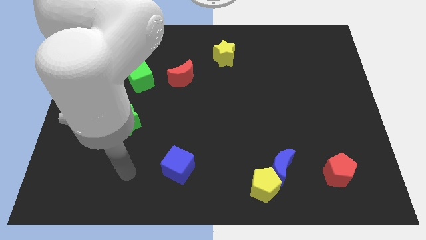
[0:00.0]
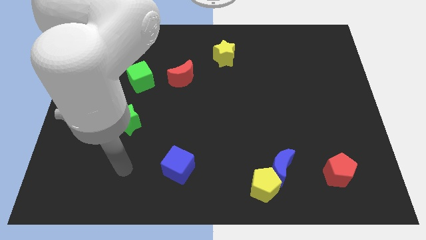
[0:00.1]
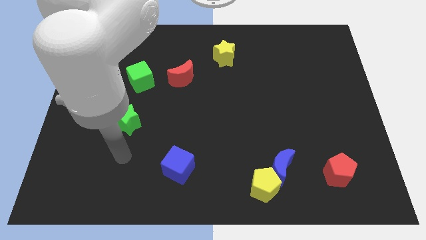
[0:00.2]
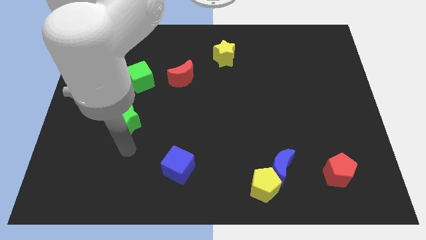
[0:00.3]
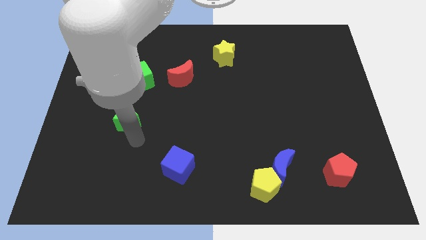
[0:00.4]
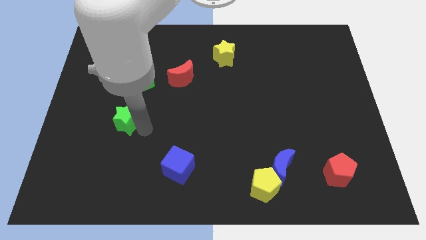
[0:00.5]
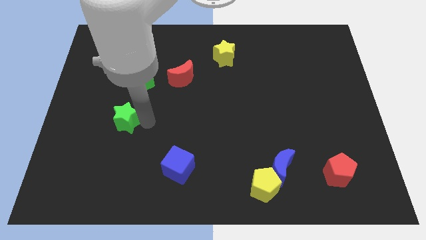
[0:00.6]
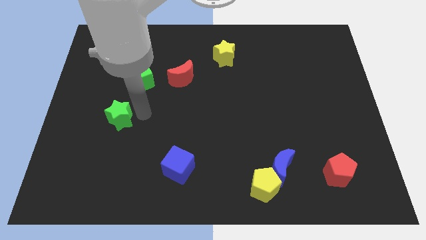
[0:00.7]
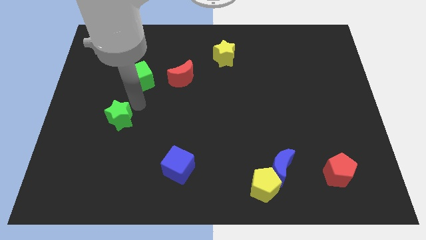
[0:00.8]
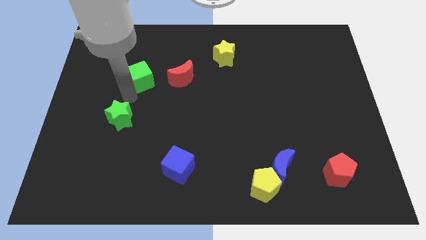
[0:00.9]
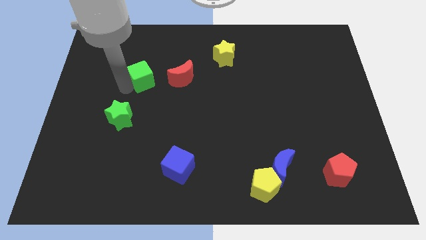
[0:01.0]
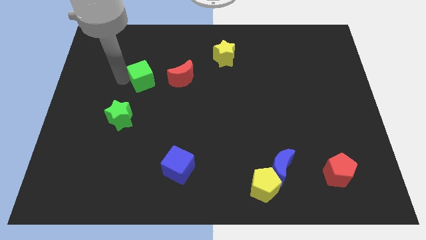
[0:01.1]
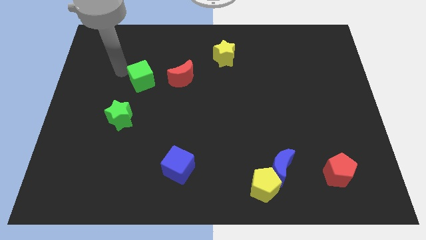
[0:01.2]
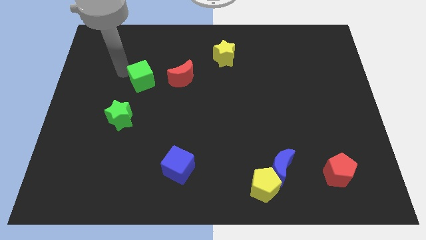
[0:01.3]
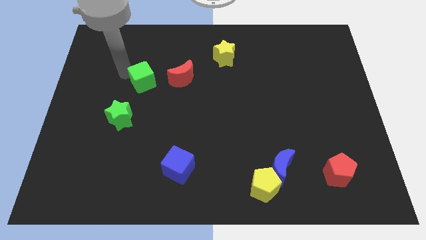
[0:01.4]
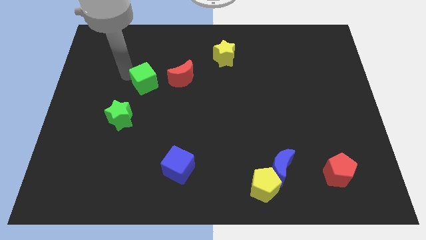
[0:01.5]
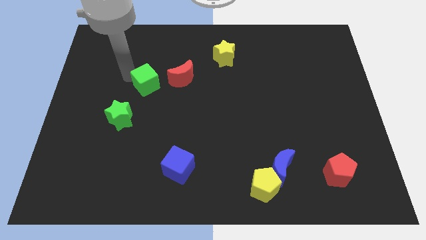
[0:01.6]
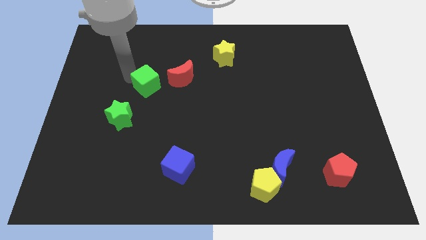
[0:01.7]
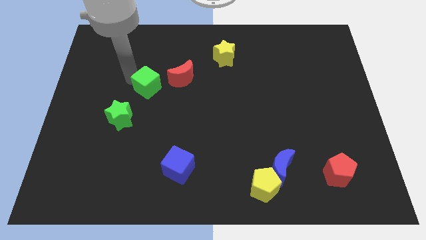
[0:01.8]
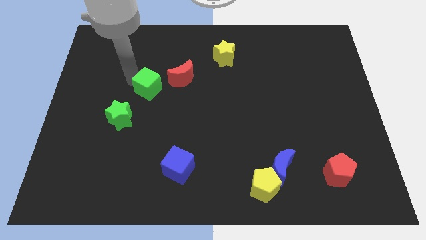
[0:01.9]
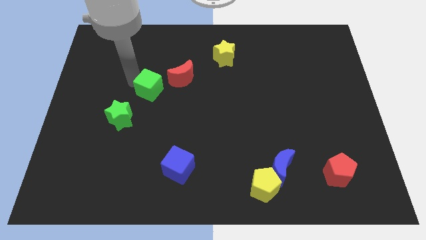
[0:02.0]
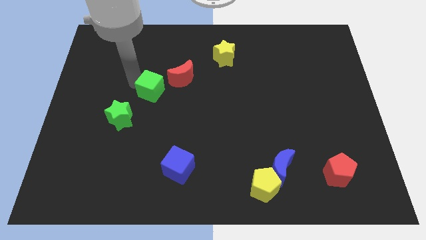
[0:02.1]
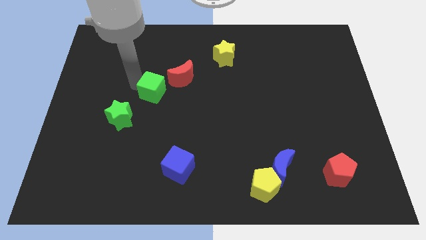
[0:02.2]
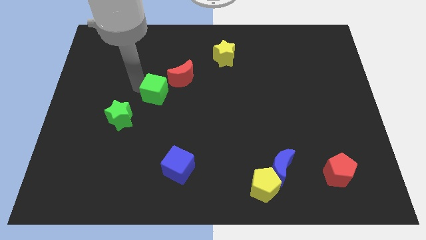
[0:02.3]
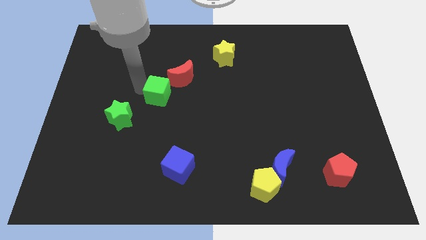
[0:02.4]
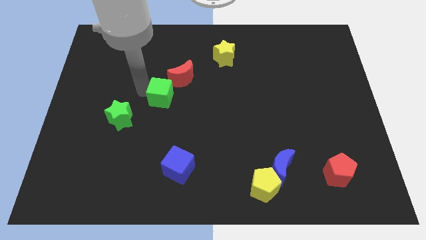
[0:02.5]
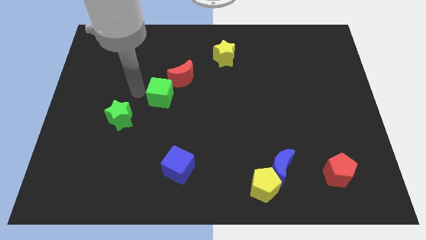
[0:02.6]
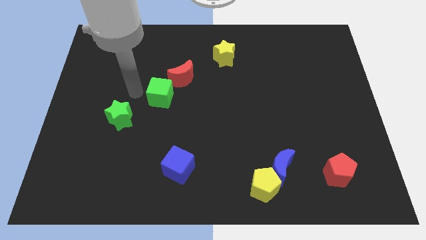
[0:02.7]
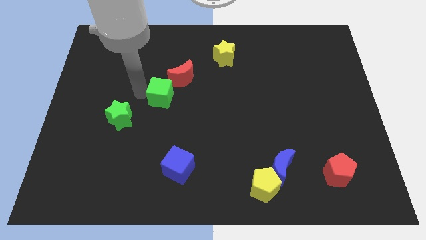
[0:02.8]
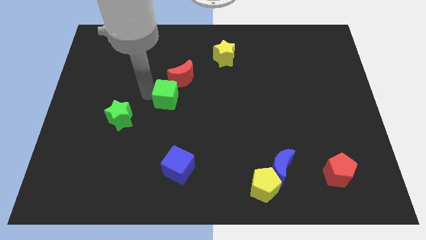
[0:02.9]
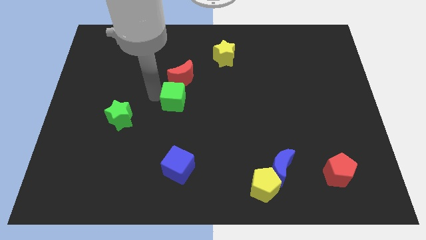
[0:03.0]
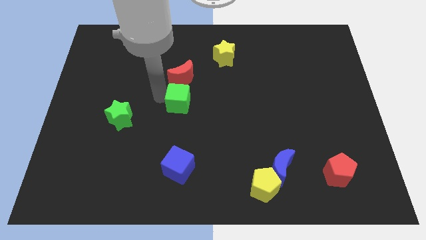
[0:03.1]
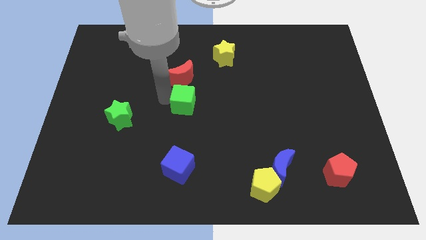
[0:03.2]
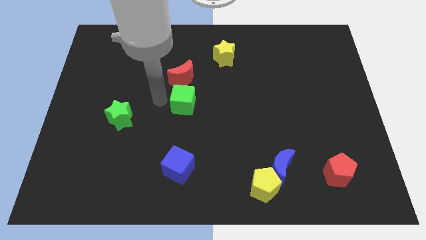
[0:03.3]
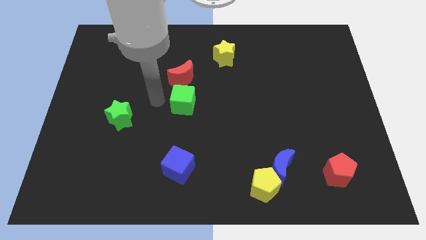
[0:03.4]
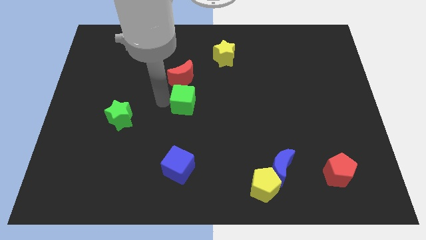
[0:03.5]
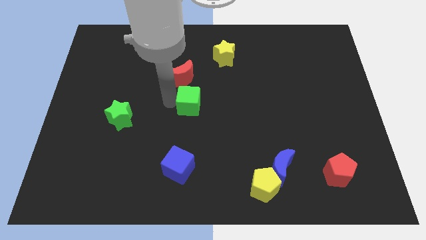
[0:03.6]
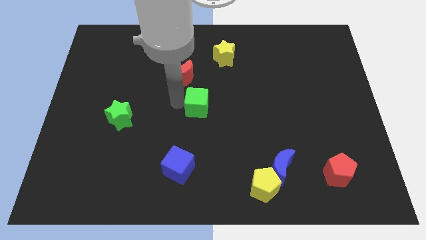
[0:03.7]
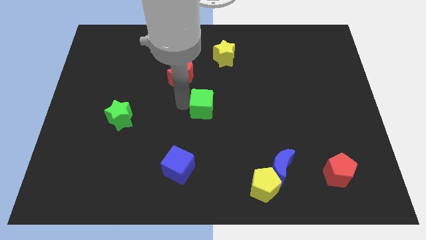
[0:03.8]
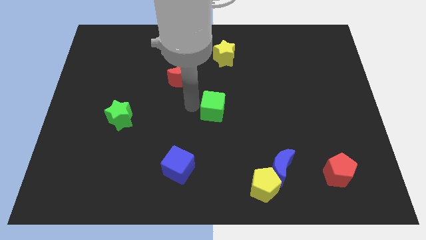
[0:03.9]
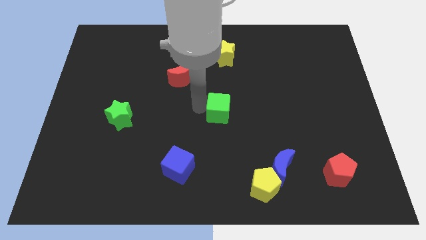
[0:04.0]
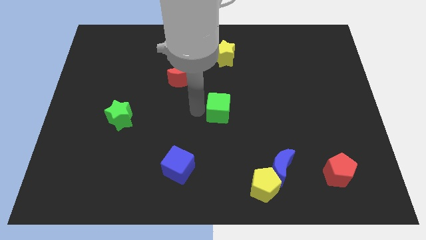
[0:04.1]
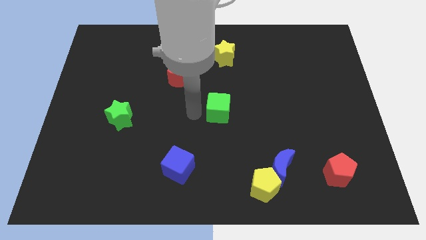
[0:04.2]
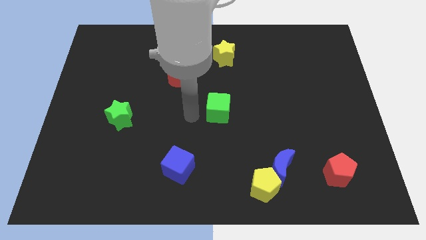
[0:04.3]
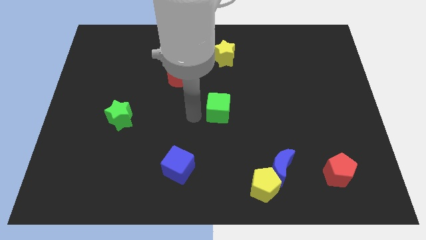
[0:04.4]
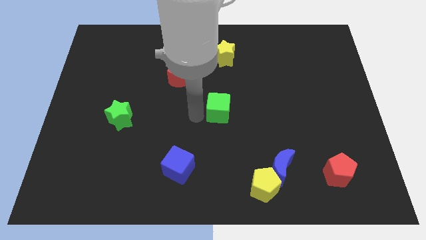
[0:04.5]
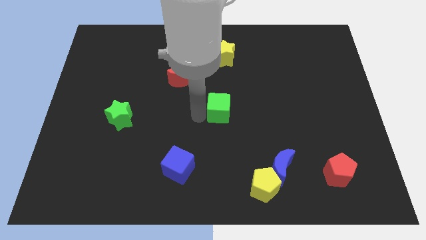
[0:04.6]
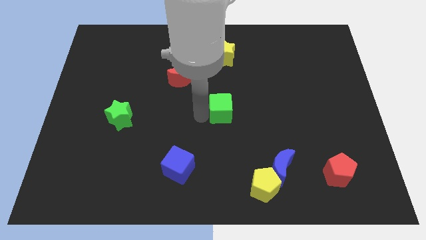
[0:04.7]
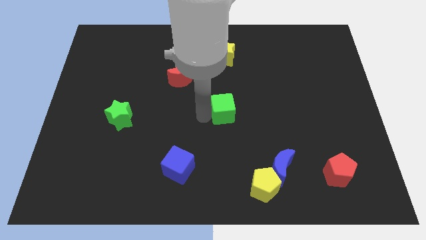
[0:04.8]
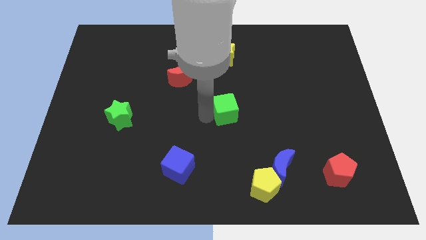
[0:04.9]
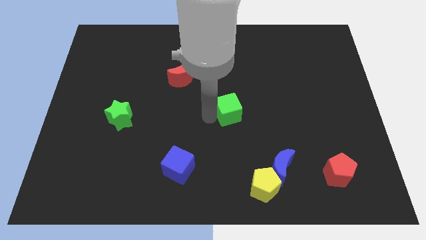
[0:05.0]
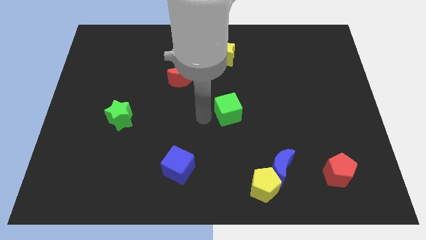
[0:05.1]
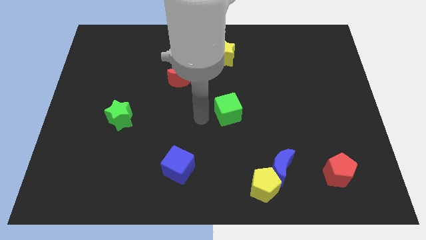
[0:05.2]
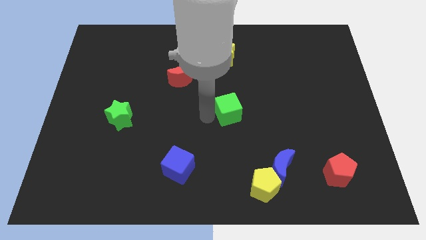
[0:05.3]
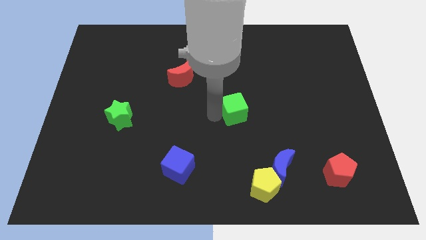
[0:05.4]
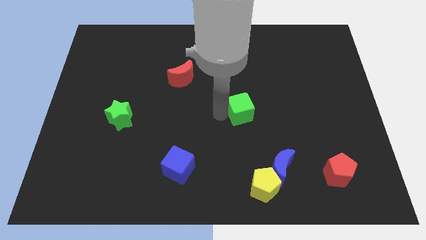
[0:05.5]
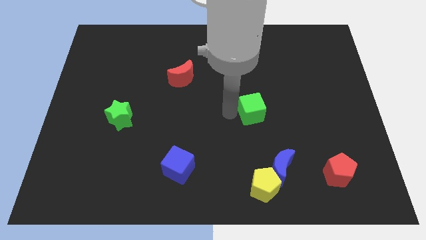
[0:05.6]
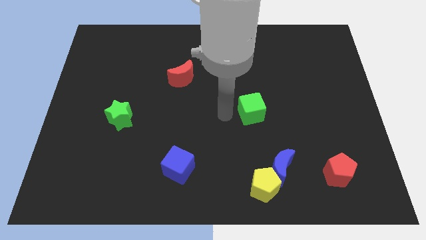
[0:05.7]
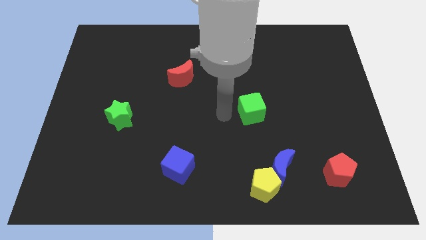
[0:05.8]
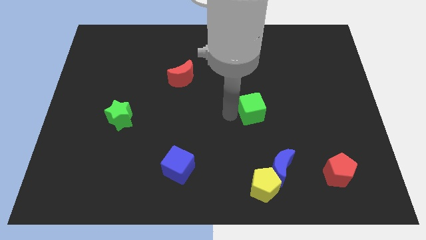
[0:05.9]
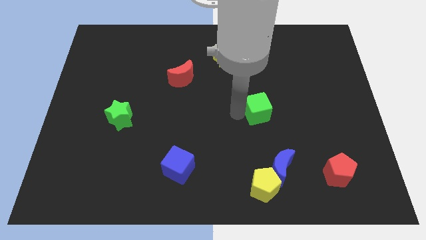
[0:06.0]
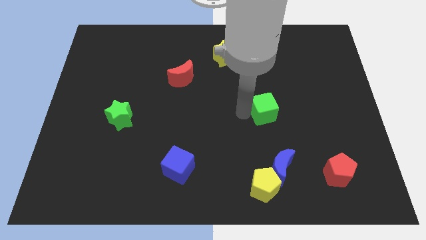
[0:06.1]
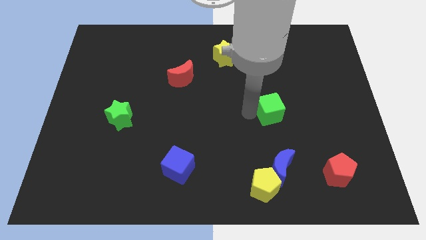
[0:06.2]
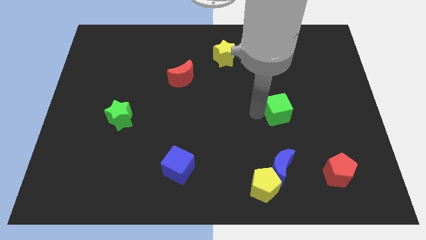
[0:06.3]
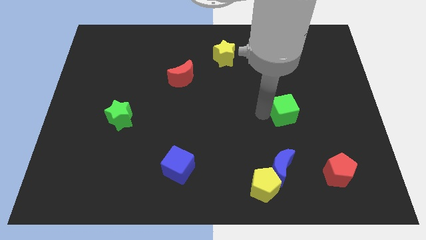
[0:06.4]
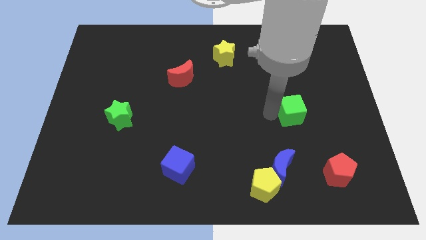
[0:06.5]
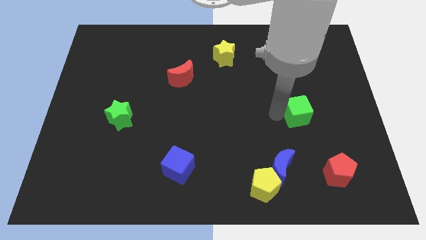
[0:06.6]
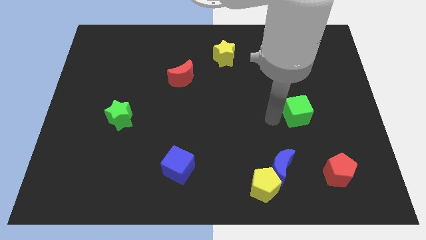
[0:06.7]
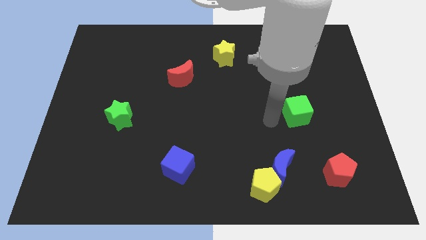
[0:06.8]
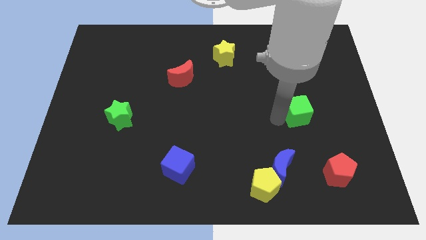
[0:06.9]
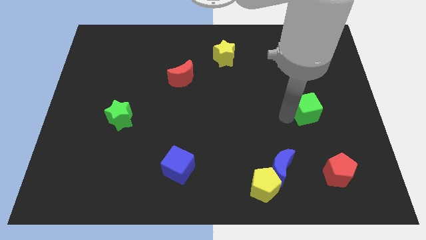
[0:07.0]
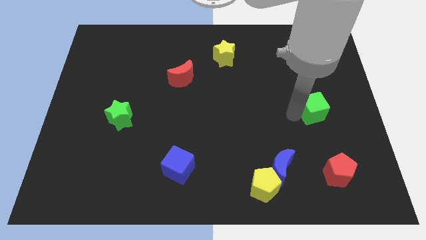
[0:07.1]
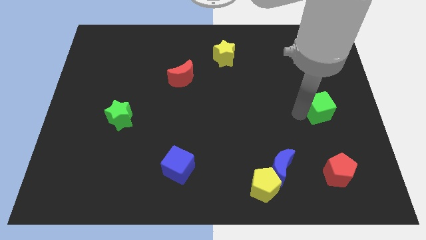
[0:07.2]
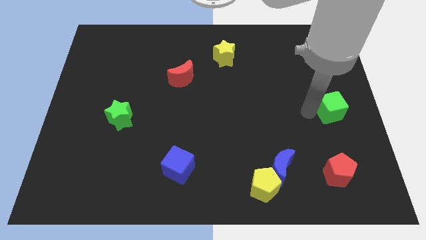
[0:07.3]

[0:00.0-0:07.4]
put the green cube to the center right

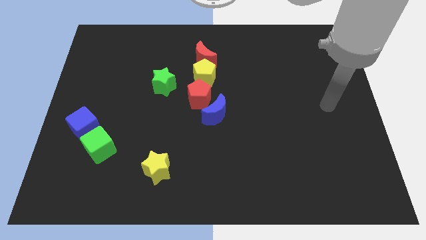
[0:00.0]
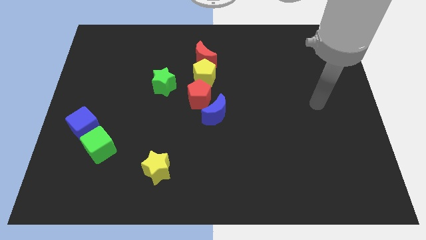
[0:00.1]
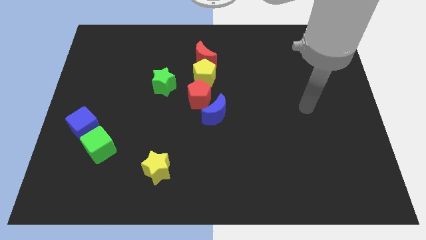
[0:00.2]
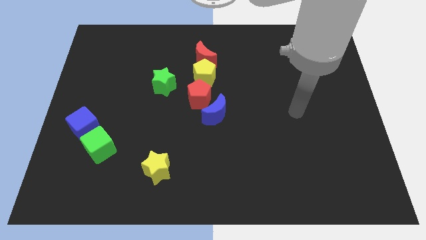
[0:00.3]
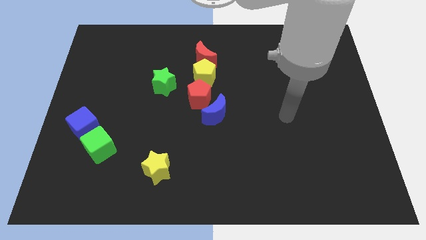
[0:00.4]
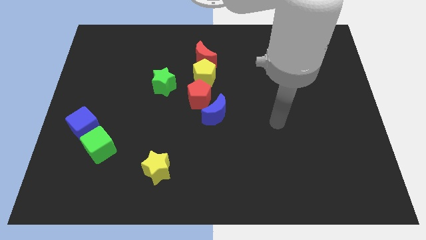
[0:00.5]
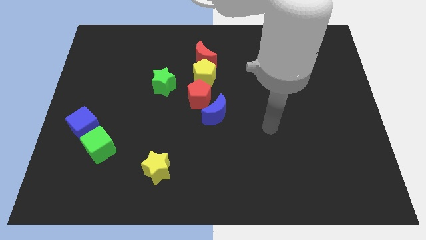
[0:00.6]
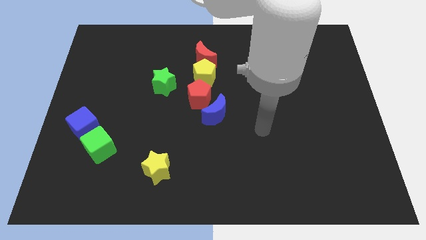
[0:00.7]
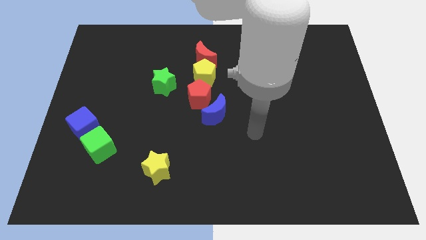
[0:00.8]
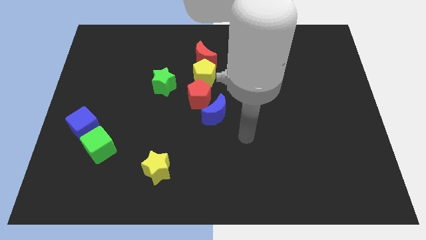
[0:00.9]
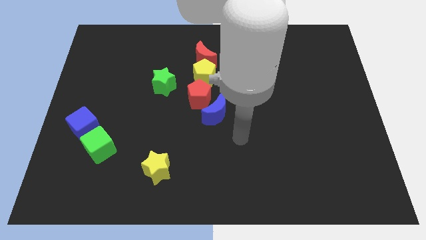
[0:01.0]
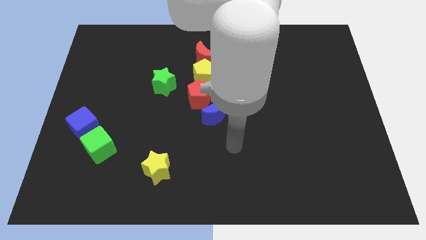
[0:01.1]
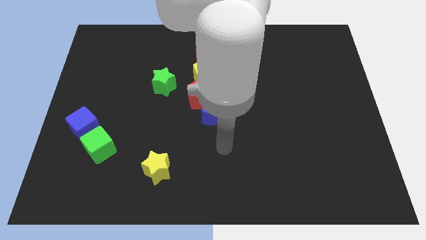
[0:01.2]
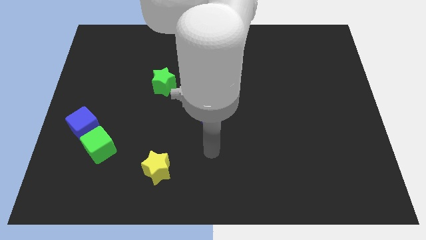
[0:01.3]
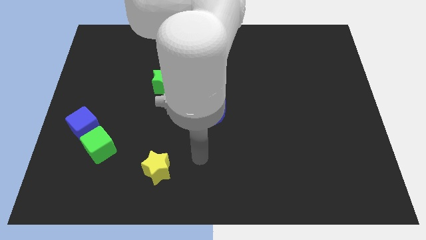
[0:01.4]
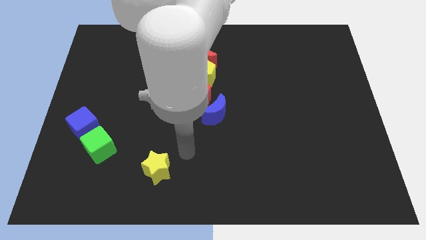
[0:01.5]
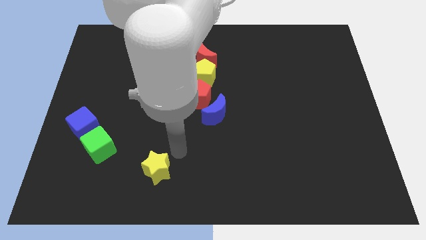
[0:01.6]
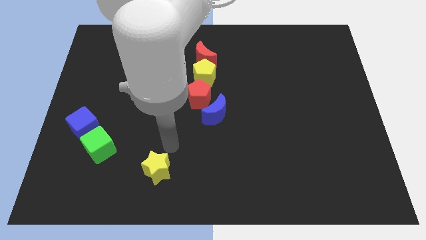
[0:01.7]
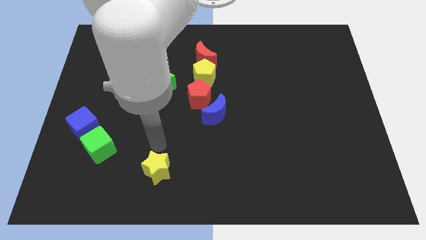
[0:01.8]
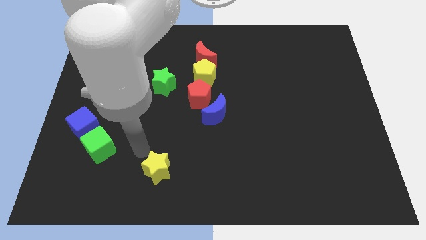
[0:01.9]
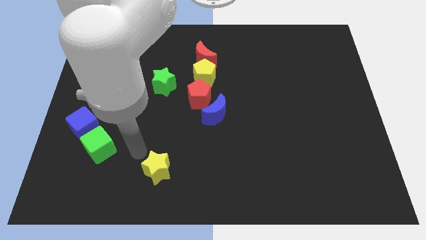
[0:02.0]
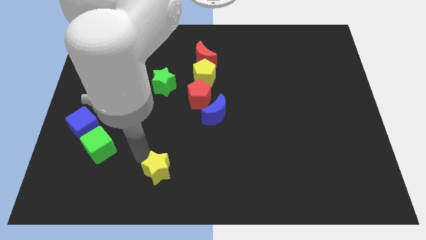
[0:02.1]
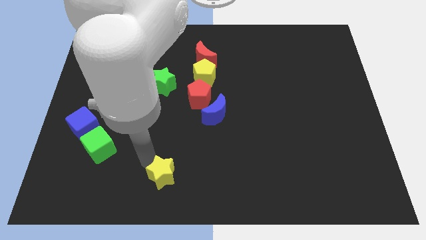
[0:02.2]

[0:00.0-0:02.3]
move the yellow star to the bottom
